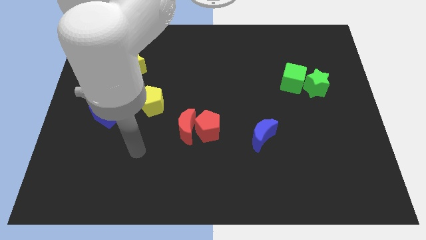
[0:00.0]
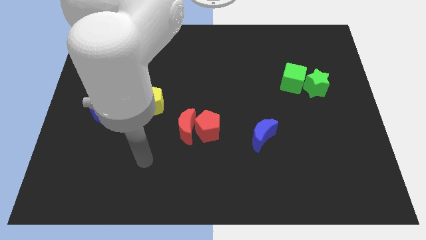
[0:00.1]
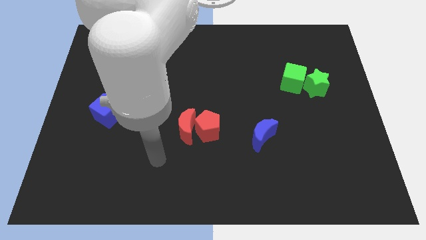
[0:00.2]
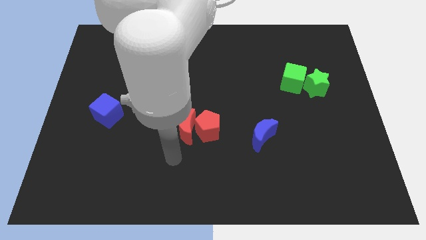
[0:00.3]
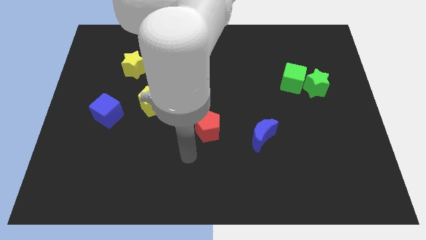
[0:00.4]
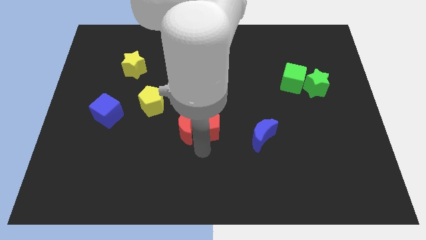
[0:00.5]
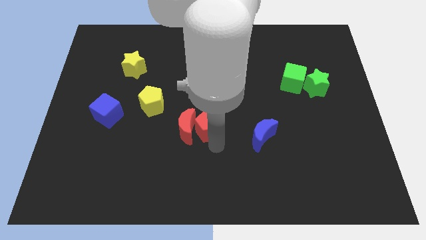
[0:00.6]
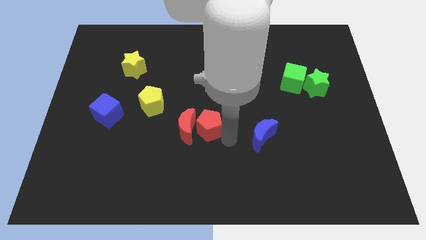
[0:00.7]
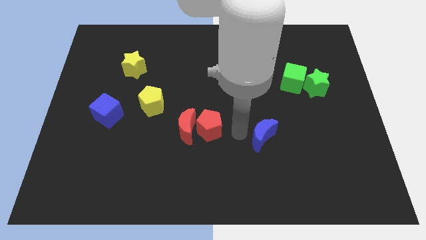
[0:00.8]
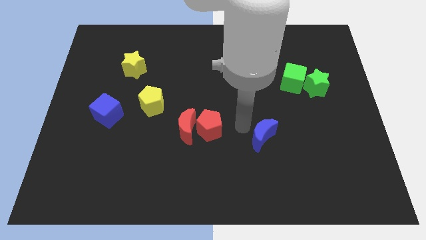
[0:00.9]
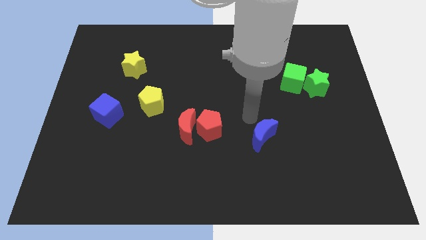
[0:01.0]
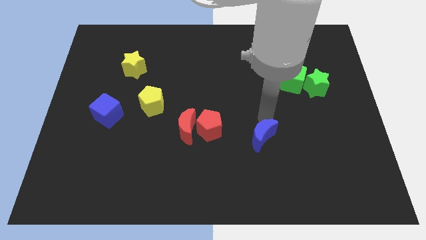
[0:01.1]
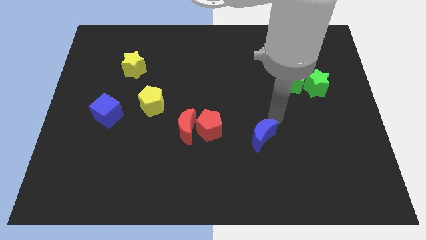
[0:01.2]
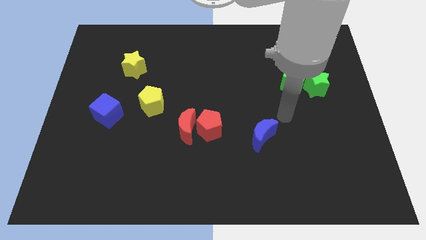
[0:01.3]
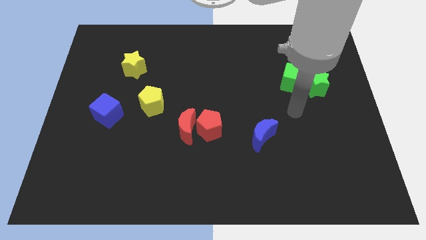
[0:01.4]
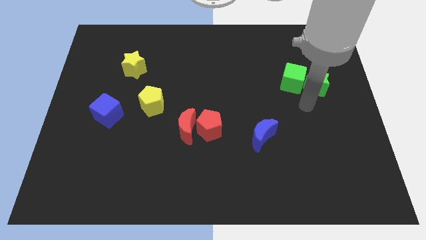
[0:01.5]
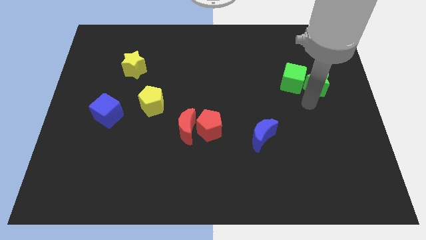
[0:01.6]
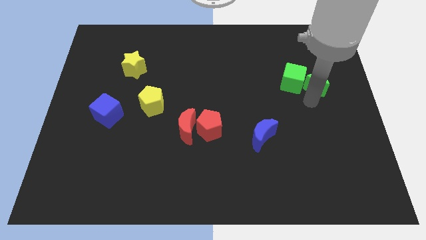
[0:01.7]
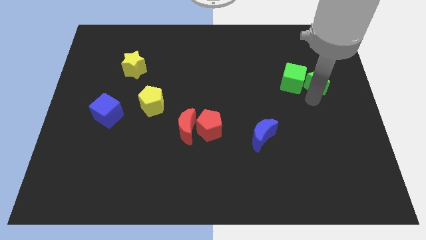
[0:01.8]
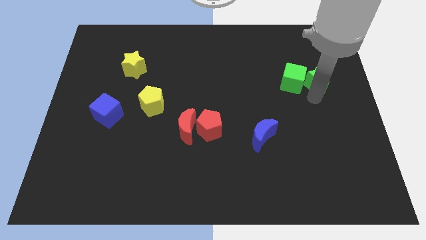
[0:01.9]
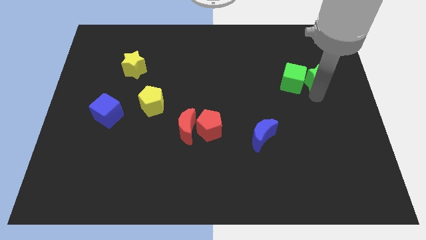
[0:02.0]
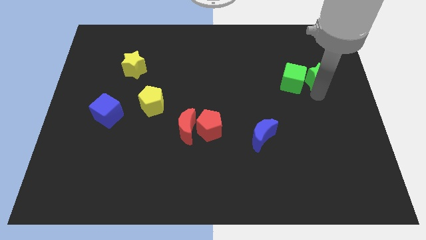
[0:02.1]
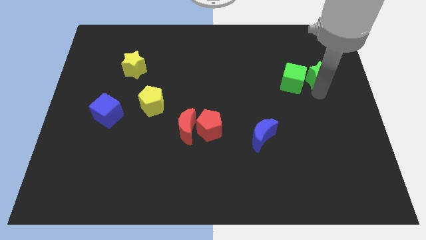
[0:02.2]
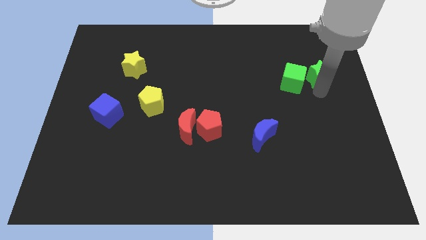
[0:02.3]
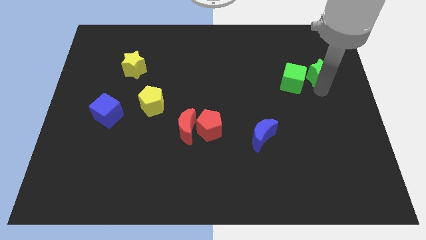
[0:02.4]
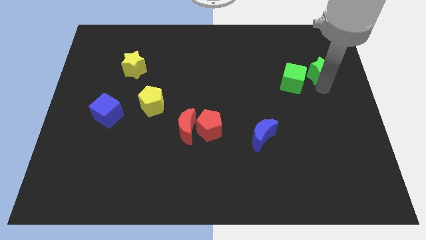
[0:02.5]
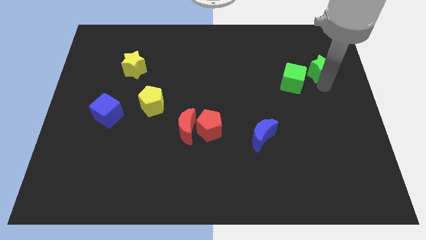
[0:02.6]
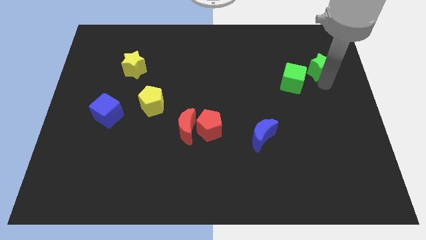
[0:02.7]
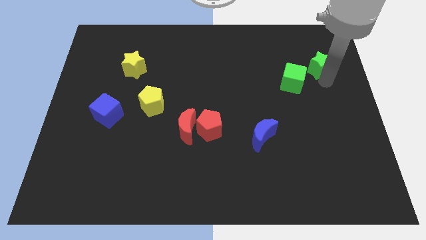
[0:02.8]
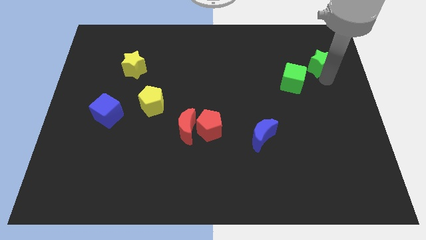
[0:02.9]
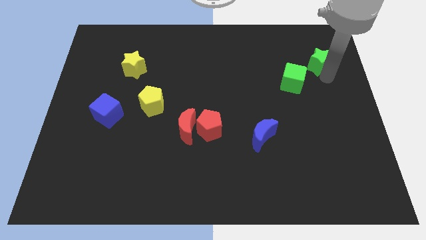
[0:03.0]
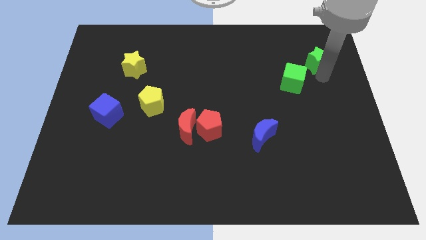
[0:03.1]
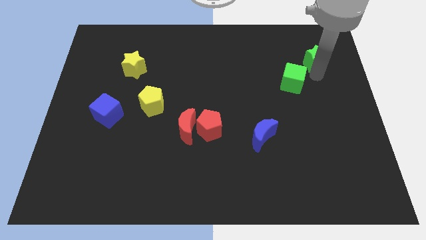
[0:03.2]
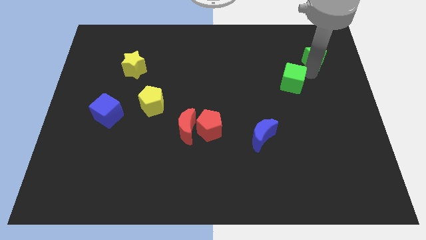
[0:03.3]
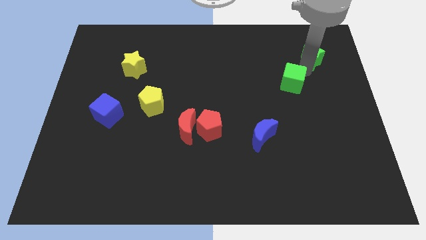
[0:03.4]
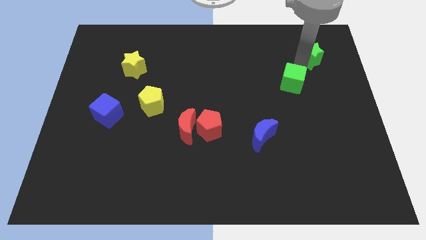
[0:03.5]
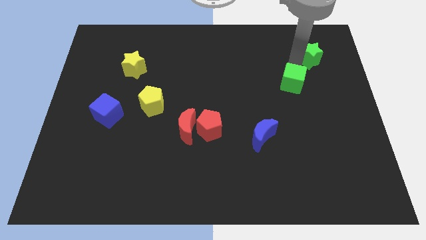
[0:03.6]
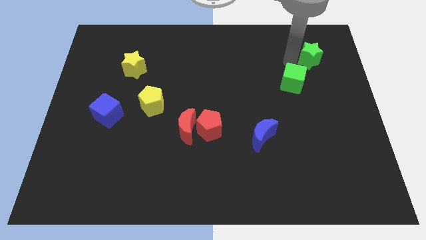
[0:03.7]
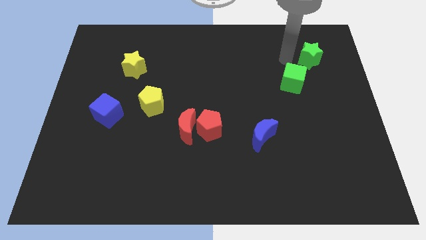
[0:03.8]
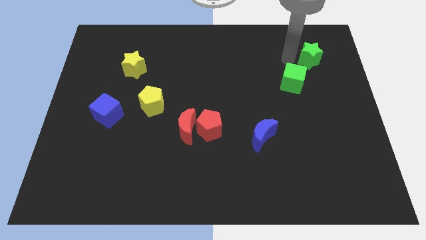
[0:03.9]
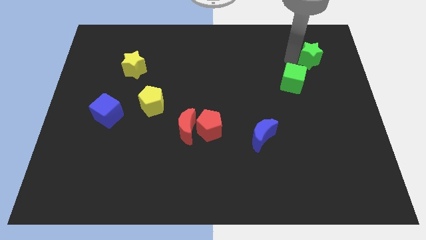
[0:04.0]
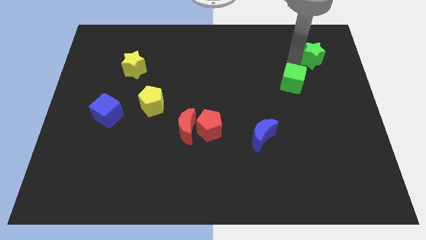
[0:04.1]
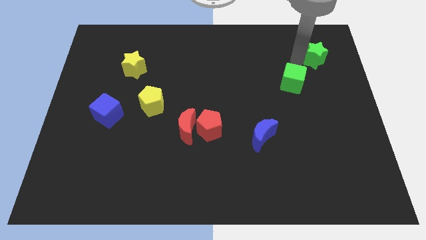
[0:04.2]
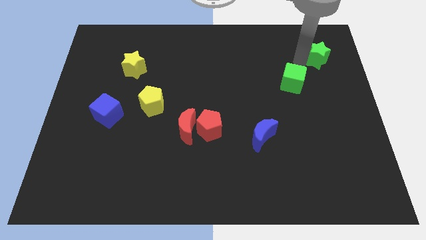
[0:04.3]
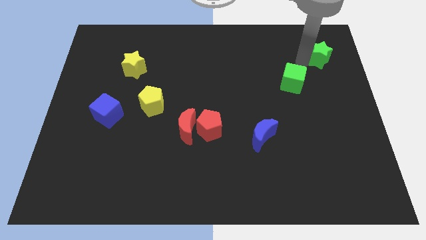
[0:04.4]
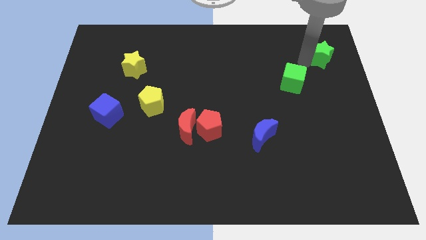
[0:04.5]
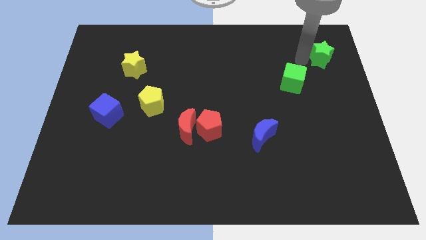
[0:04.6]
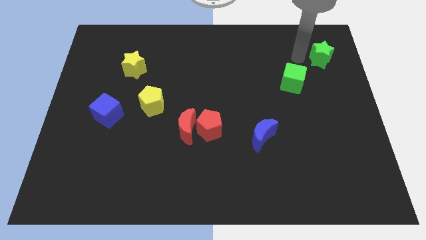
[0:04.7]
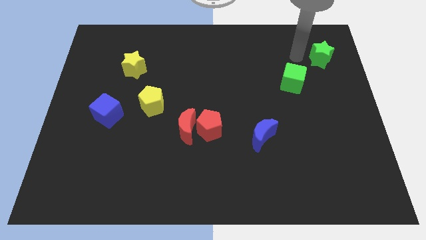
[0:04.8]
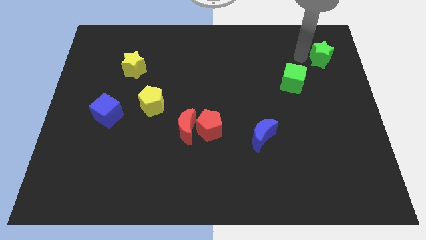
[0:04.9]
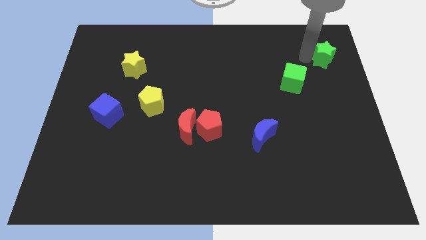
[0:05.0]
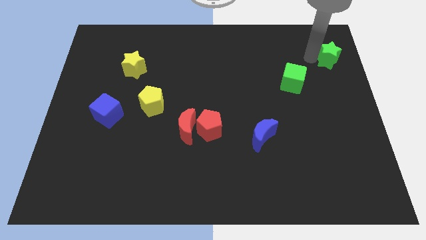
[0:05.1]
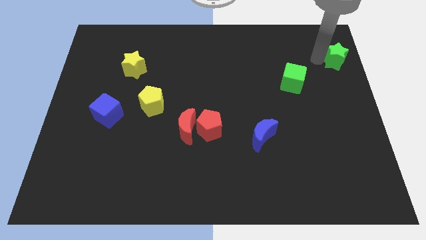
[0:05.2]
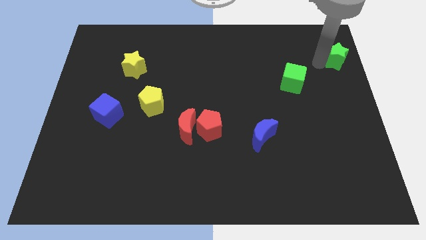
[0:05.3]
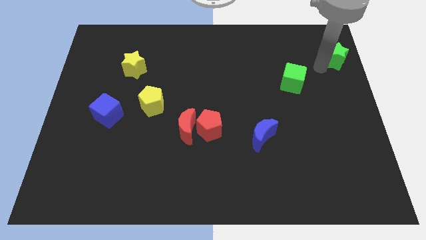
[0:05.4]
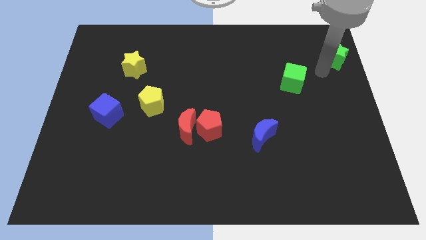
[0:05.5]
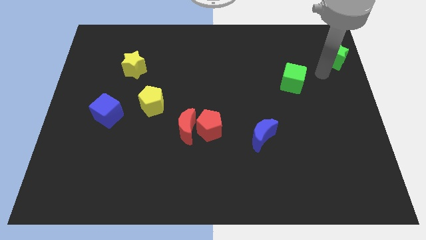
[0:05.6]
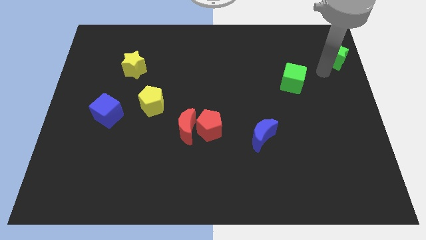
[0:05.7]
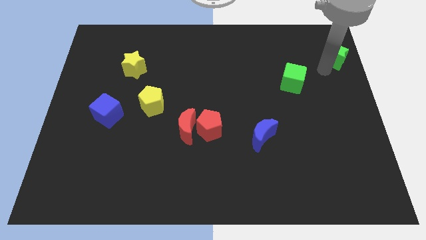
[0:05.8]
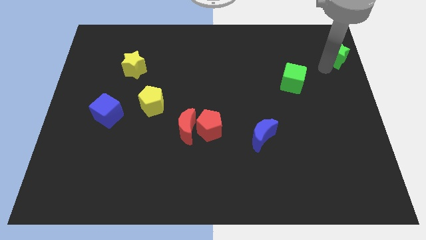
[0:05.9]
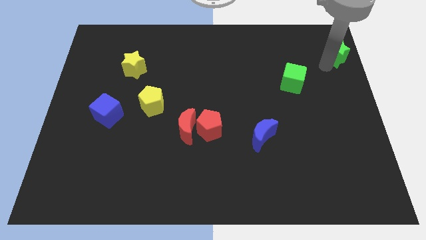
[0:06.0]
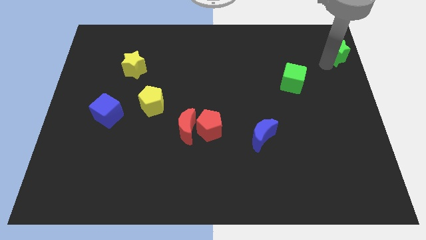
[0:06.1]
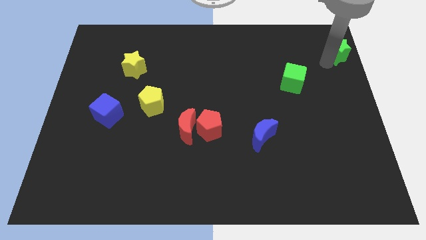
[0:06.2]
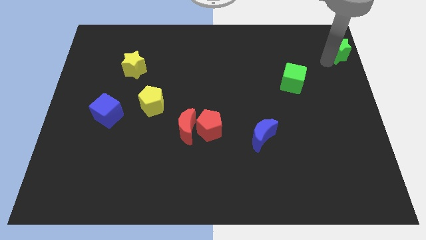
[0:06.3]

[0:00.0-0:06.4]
put the green star to the upper right corner
